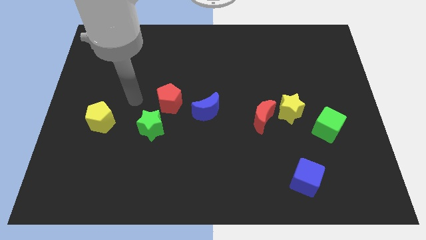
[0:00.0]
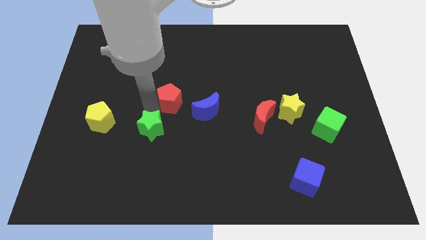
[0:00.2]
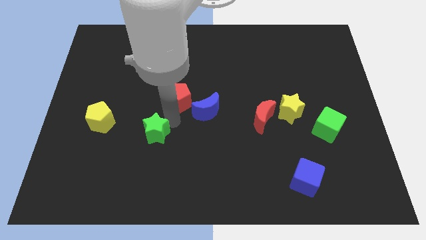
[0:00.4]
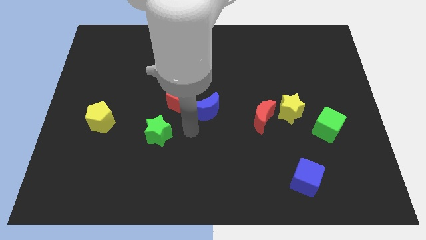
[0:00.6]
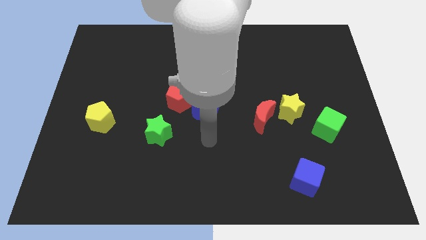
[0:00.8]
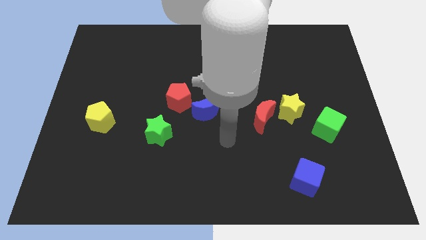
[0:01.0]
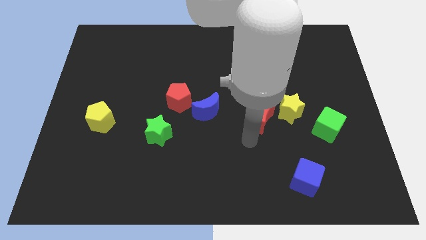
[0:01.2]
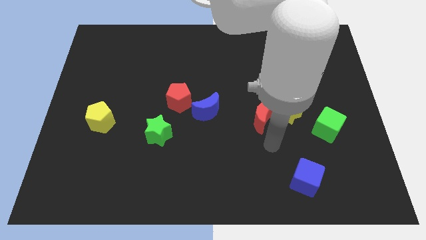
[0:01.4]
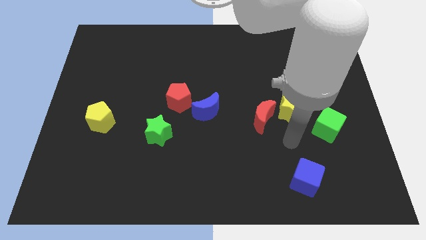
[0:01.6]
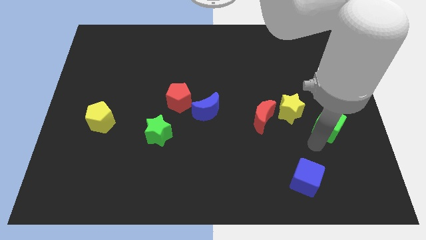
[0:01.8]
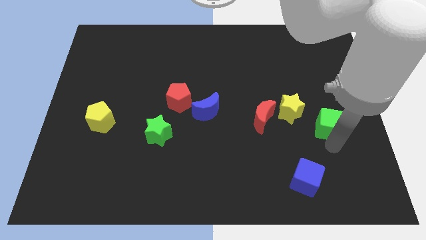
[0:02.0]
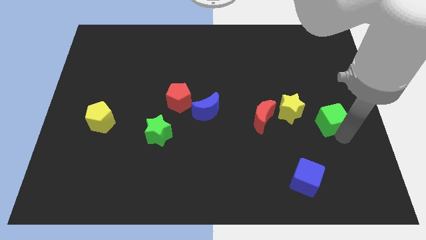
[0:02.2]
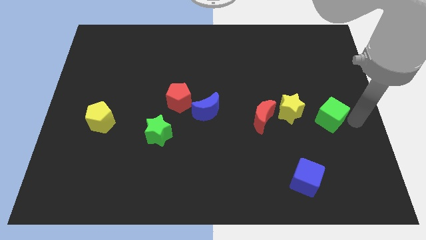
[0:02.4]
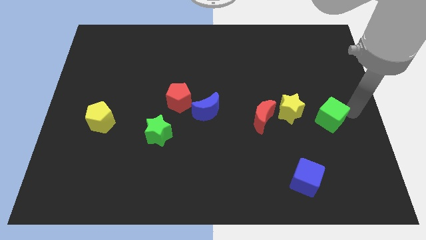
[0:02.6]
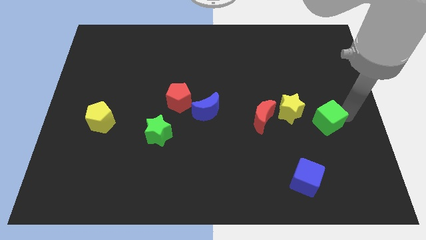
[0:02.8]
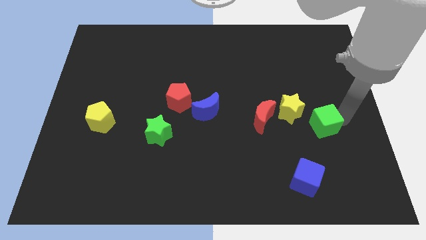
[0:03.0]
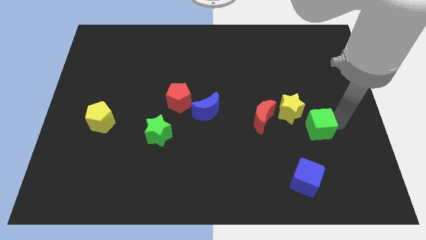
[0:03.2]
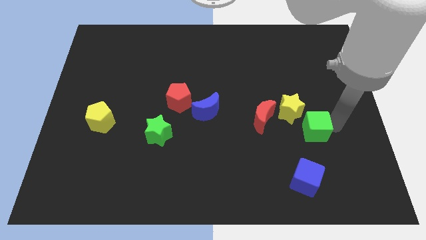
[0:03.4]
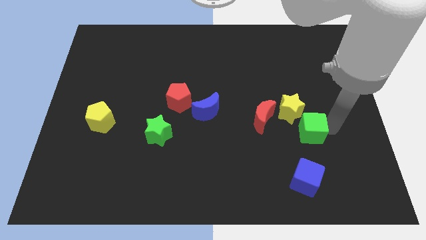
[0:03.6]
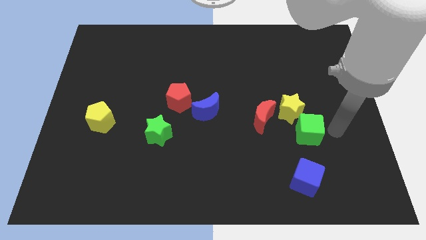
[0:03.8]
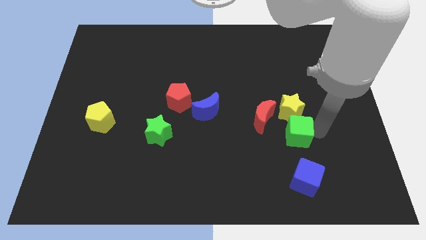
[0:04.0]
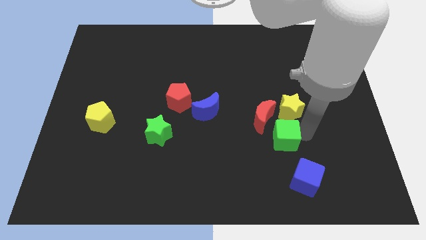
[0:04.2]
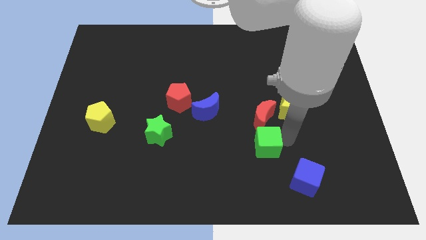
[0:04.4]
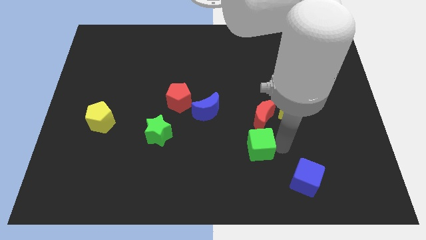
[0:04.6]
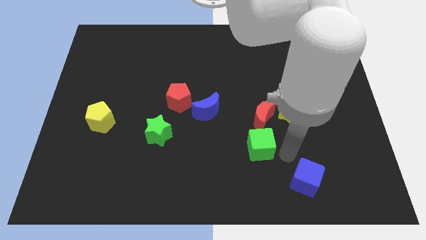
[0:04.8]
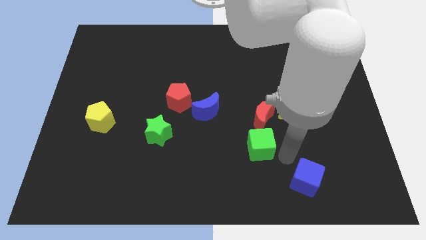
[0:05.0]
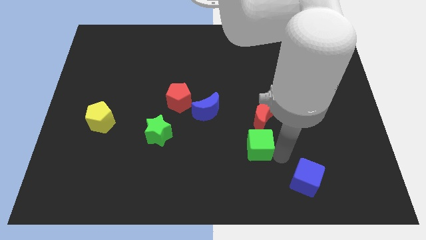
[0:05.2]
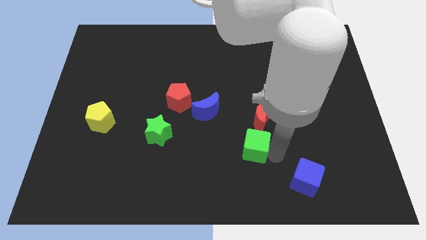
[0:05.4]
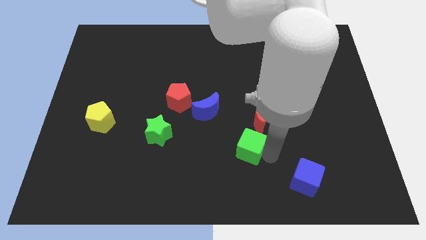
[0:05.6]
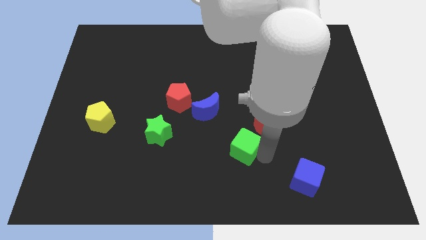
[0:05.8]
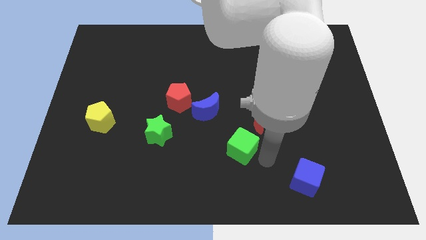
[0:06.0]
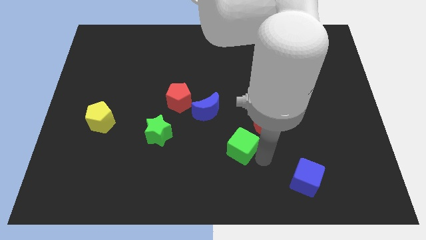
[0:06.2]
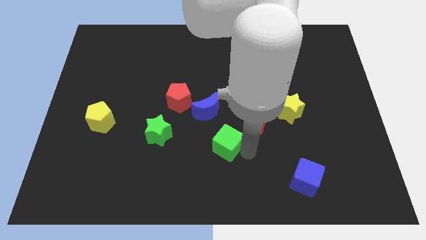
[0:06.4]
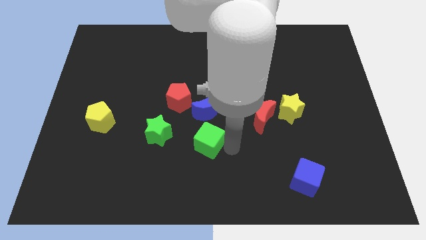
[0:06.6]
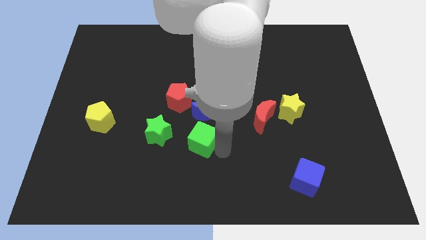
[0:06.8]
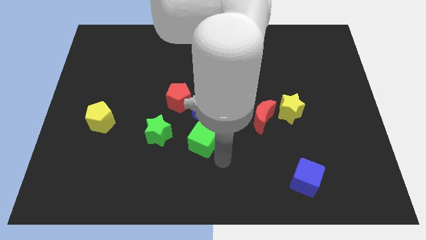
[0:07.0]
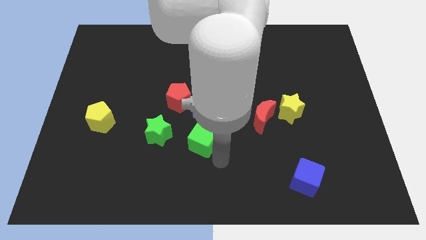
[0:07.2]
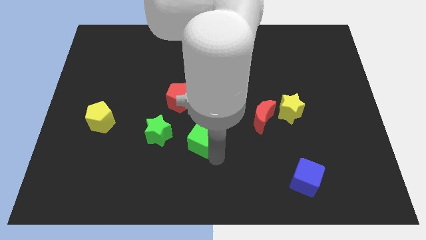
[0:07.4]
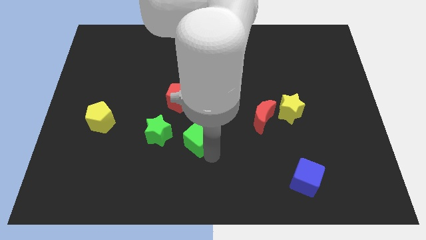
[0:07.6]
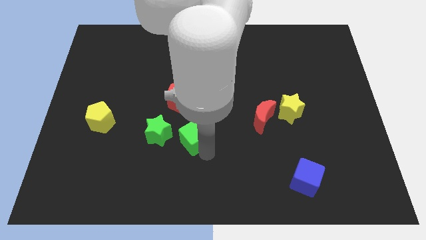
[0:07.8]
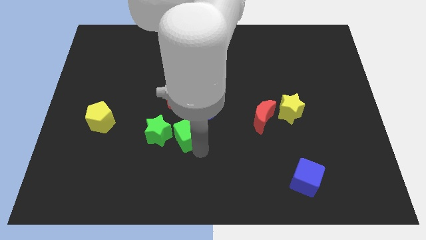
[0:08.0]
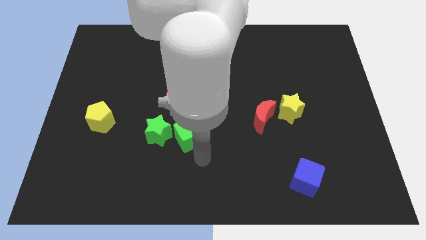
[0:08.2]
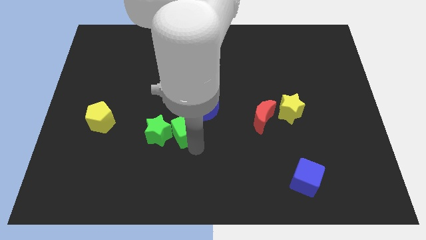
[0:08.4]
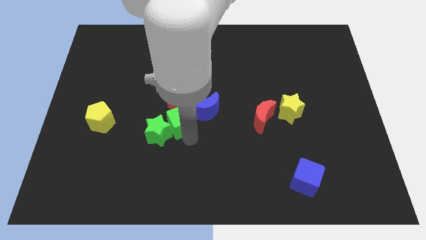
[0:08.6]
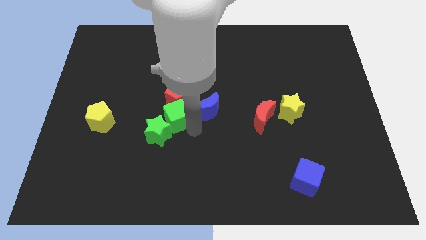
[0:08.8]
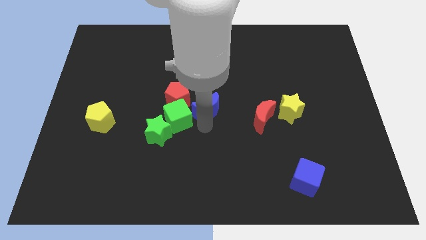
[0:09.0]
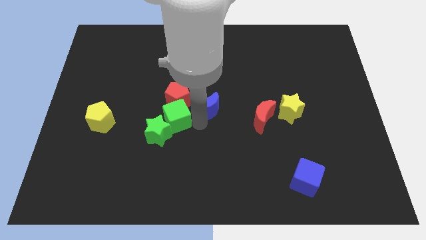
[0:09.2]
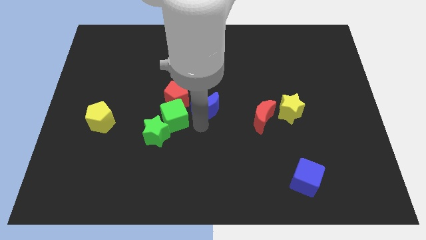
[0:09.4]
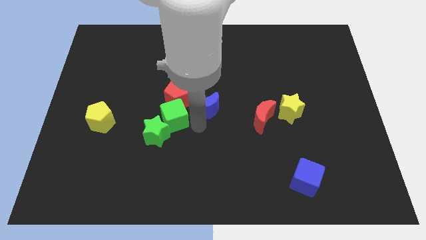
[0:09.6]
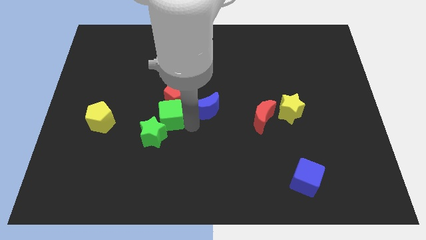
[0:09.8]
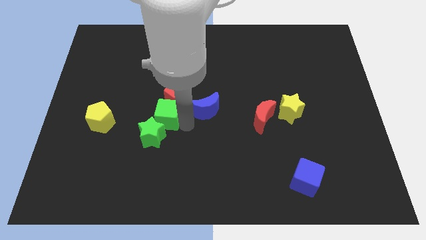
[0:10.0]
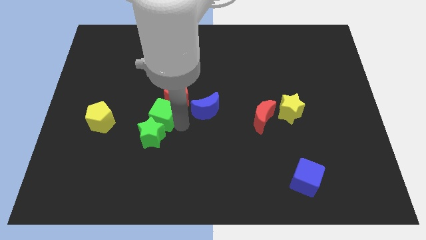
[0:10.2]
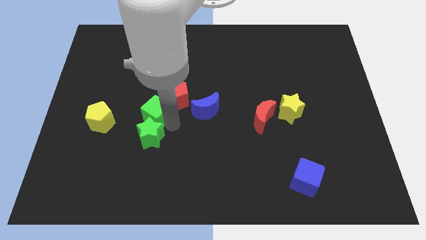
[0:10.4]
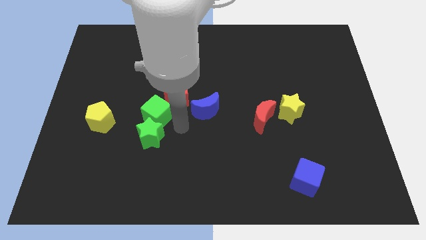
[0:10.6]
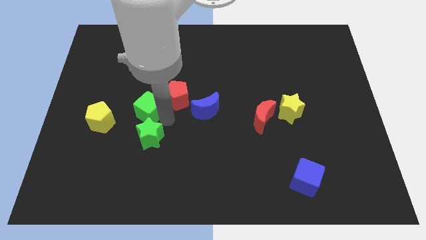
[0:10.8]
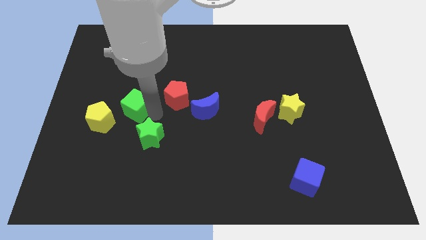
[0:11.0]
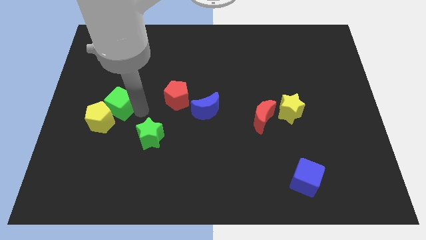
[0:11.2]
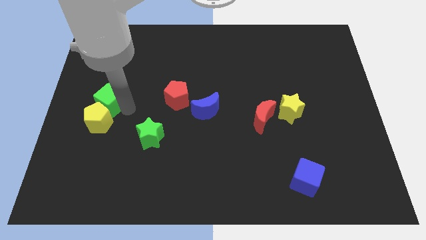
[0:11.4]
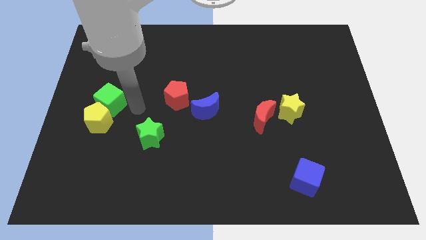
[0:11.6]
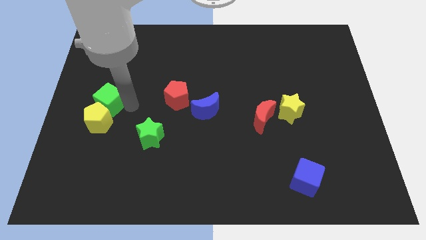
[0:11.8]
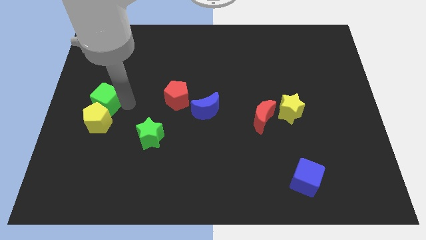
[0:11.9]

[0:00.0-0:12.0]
move the green cube to the left side
